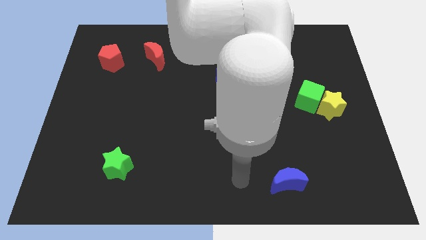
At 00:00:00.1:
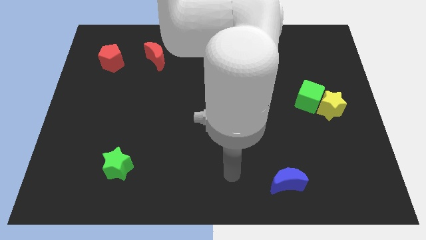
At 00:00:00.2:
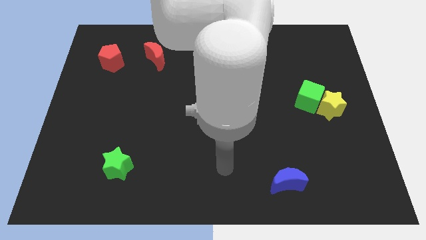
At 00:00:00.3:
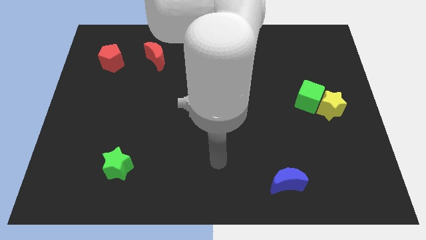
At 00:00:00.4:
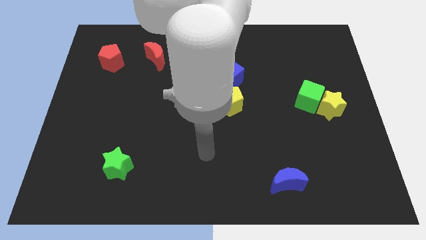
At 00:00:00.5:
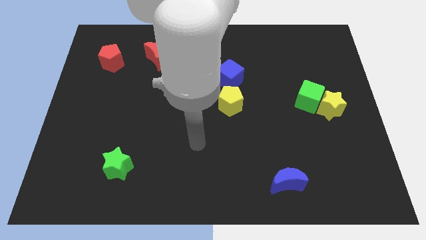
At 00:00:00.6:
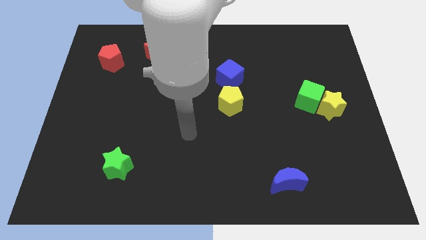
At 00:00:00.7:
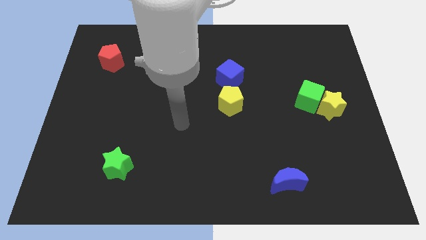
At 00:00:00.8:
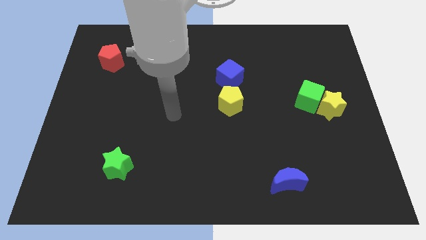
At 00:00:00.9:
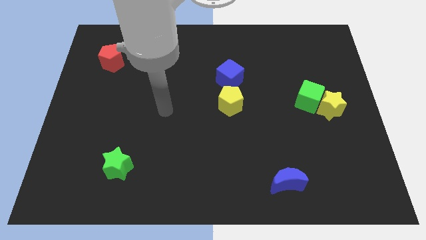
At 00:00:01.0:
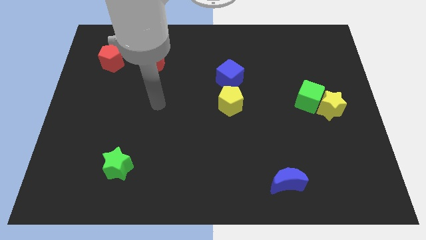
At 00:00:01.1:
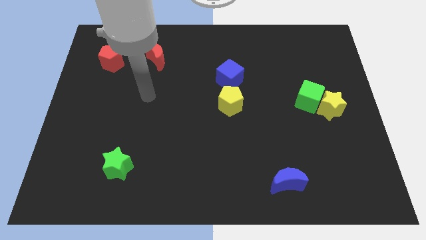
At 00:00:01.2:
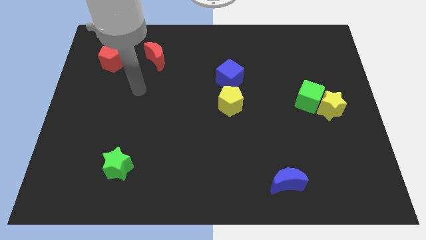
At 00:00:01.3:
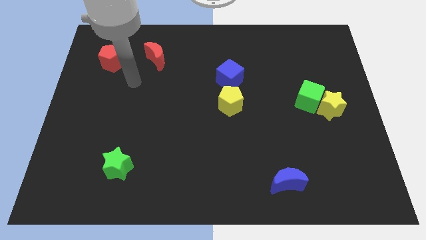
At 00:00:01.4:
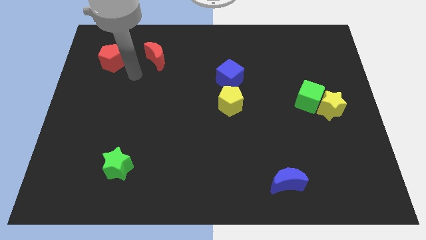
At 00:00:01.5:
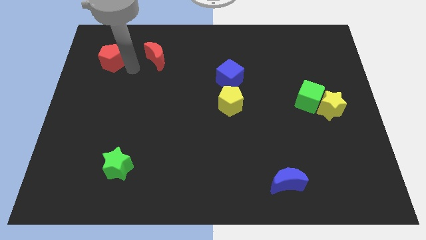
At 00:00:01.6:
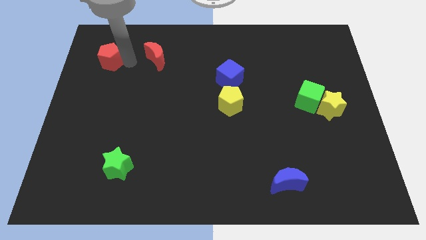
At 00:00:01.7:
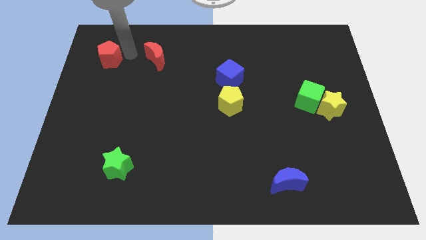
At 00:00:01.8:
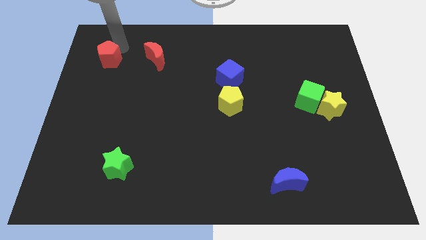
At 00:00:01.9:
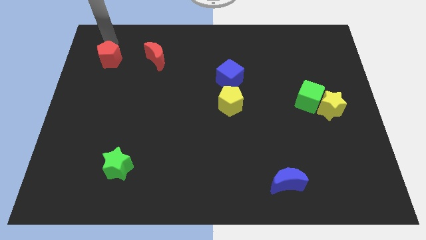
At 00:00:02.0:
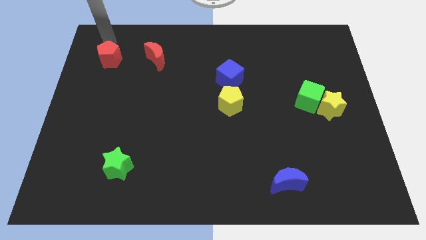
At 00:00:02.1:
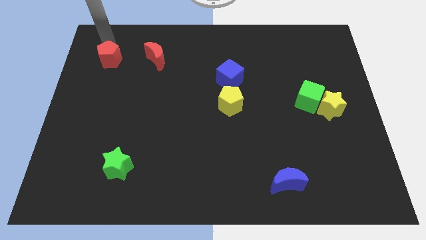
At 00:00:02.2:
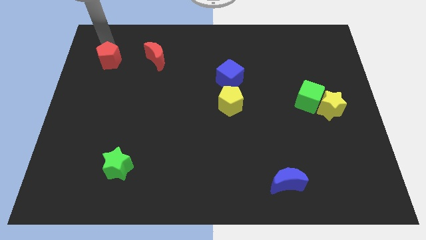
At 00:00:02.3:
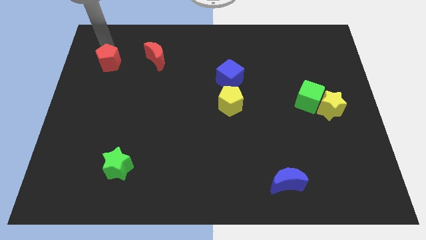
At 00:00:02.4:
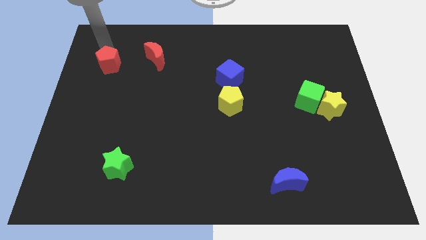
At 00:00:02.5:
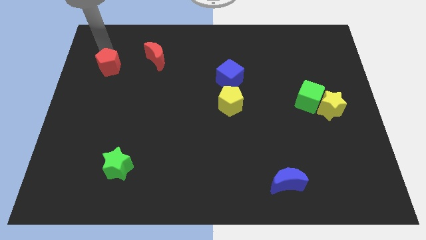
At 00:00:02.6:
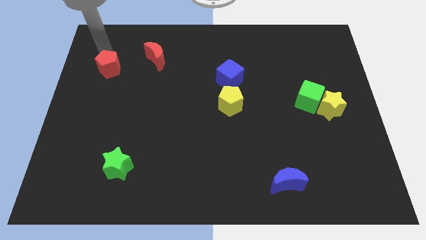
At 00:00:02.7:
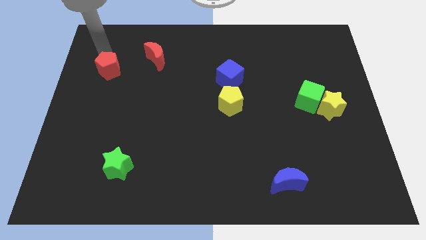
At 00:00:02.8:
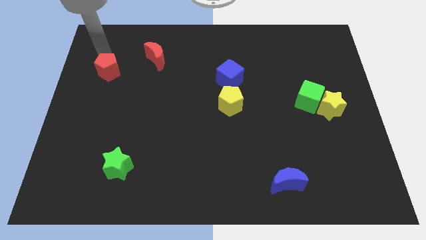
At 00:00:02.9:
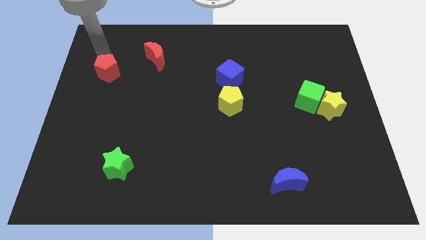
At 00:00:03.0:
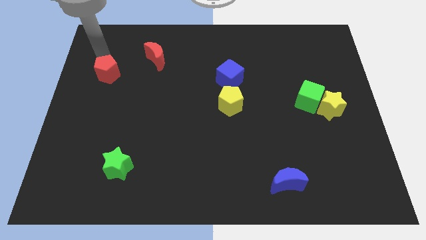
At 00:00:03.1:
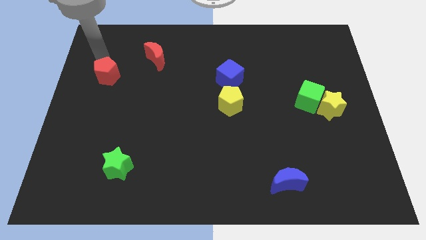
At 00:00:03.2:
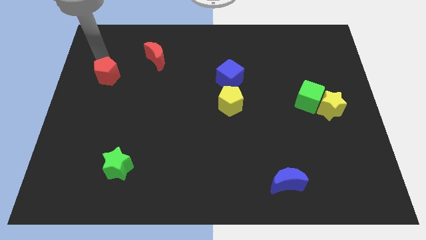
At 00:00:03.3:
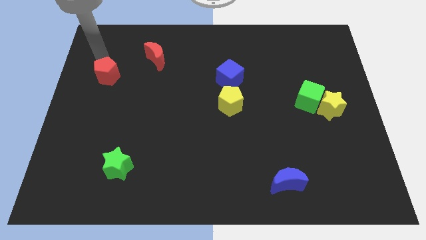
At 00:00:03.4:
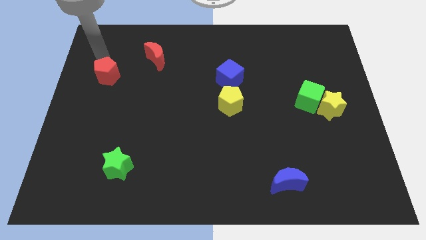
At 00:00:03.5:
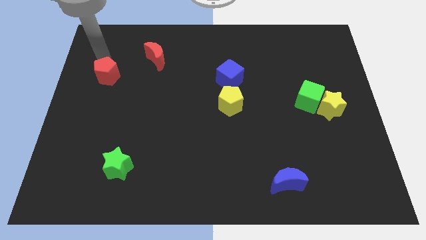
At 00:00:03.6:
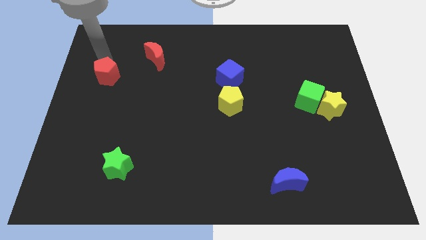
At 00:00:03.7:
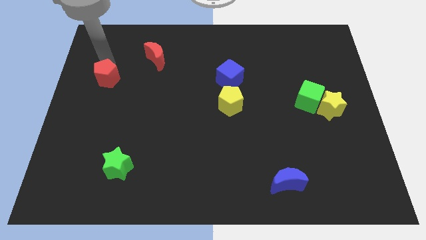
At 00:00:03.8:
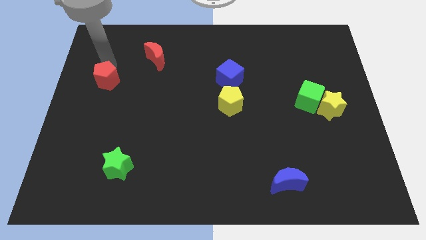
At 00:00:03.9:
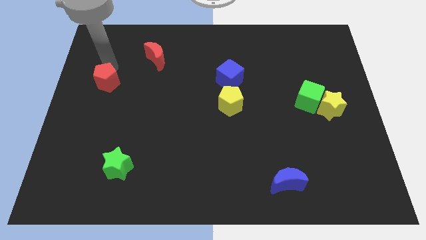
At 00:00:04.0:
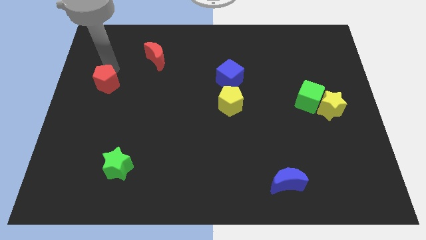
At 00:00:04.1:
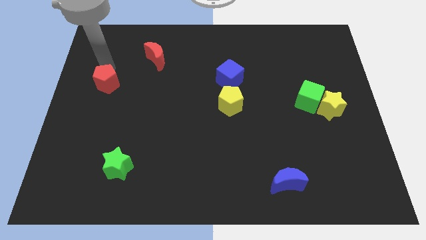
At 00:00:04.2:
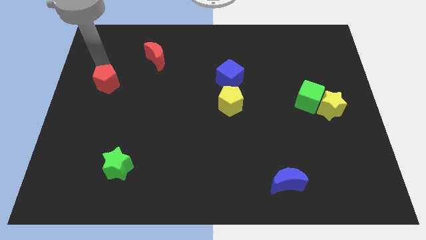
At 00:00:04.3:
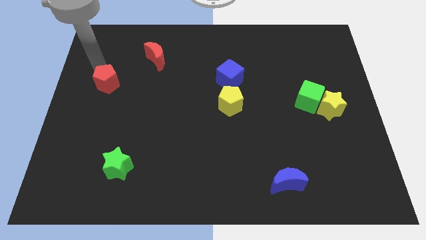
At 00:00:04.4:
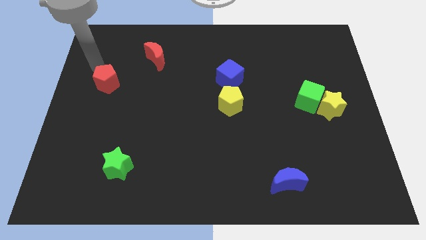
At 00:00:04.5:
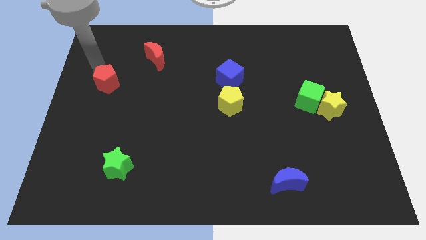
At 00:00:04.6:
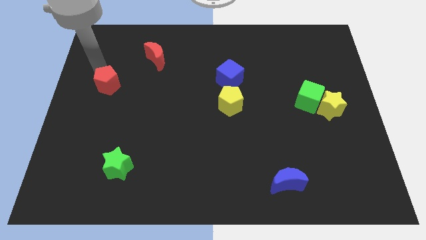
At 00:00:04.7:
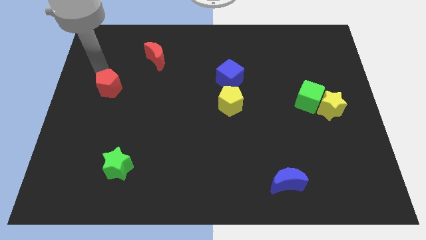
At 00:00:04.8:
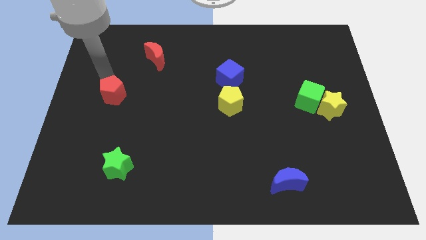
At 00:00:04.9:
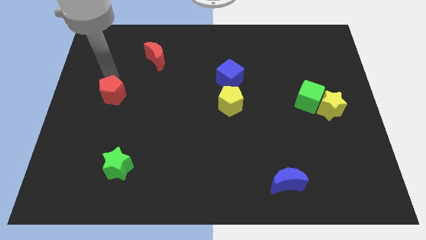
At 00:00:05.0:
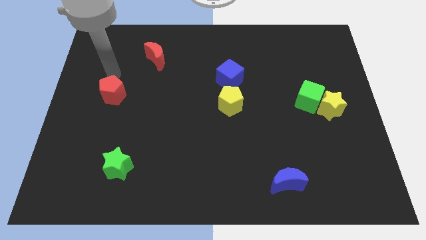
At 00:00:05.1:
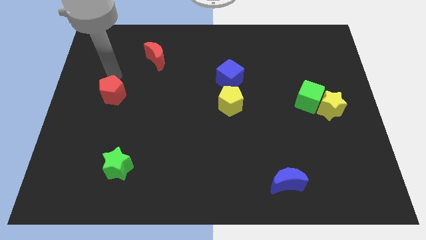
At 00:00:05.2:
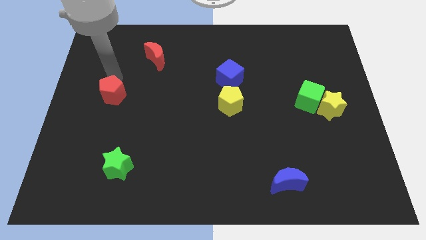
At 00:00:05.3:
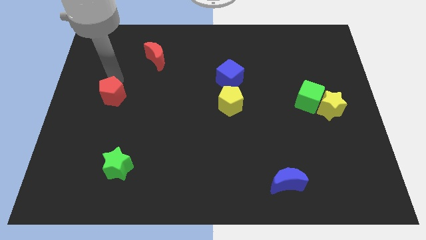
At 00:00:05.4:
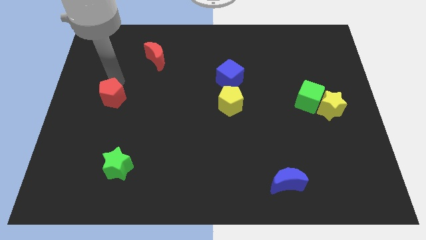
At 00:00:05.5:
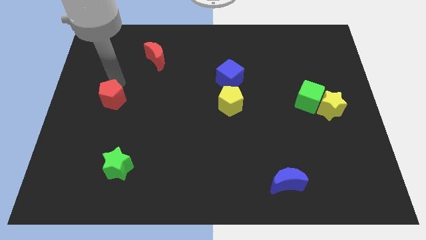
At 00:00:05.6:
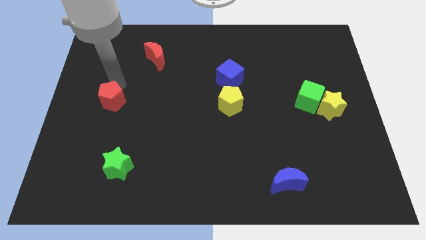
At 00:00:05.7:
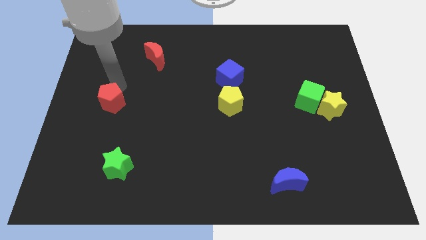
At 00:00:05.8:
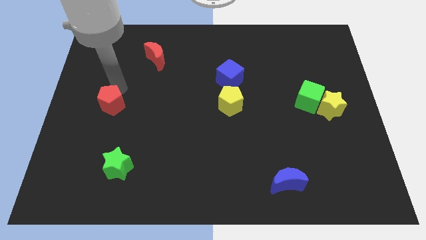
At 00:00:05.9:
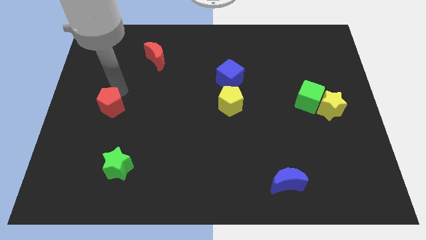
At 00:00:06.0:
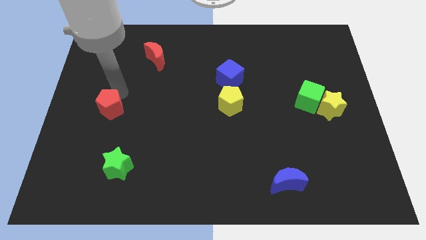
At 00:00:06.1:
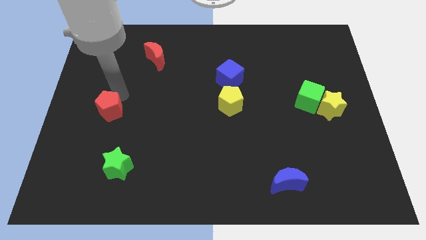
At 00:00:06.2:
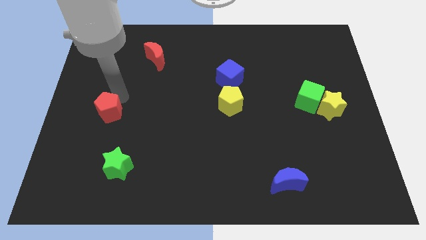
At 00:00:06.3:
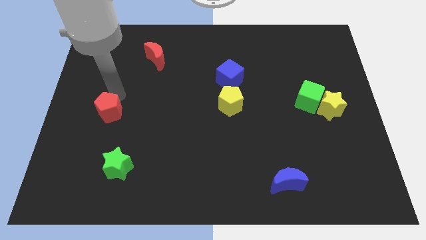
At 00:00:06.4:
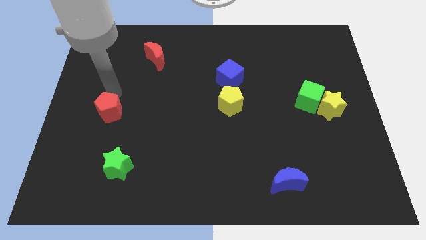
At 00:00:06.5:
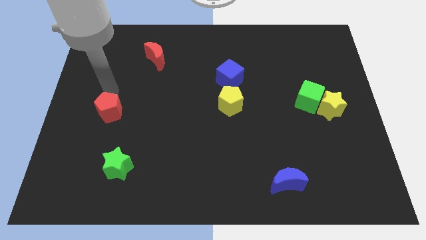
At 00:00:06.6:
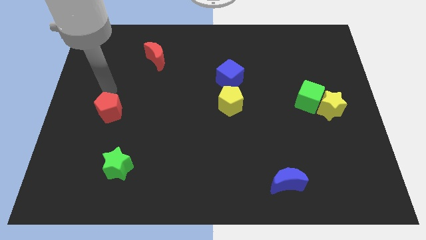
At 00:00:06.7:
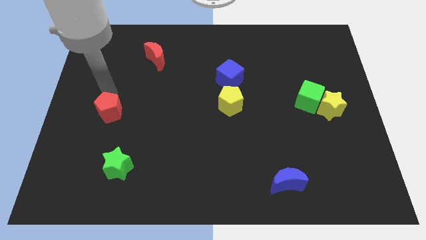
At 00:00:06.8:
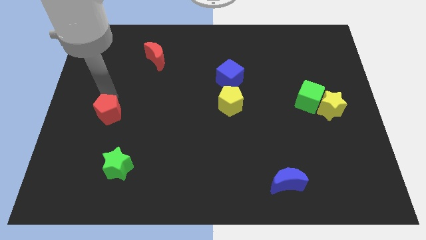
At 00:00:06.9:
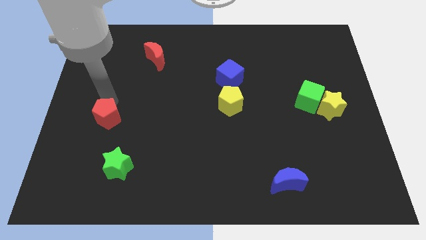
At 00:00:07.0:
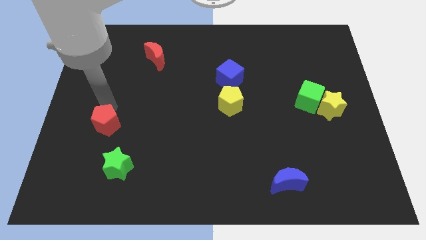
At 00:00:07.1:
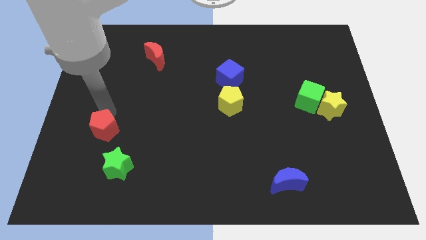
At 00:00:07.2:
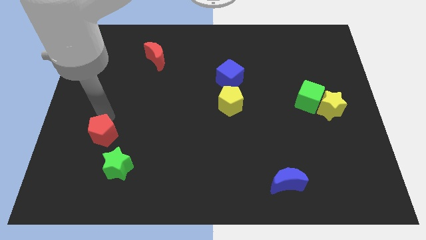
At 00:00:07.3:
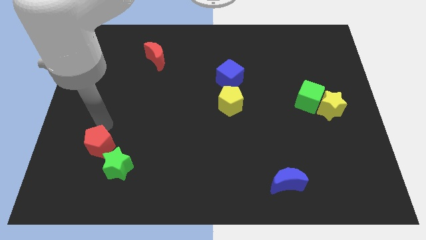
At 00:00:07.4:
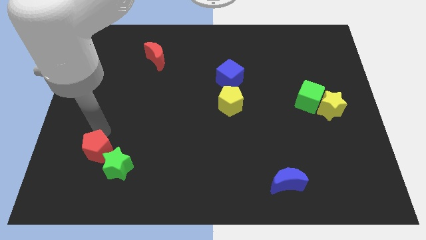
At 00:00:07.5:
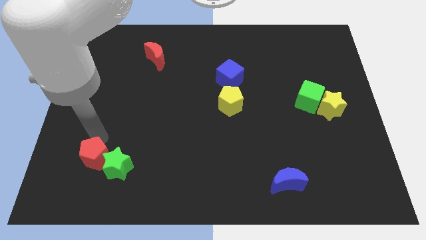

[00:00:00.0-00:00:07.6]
put the red pentagon towards the green star
